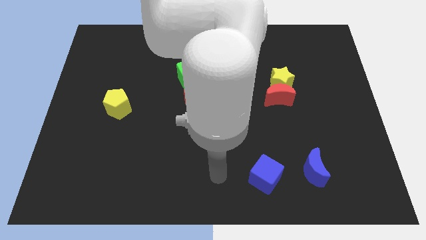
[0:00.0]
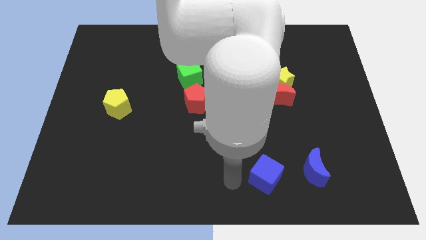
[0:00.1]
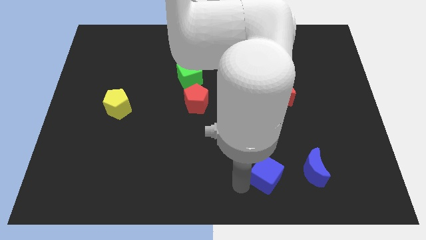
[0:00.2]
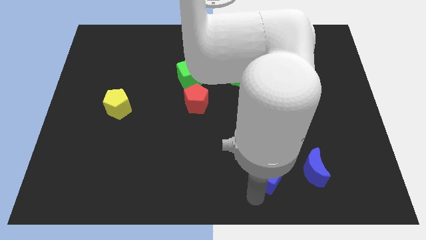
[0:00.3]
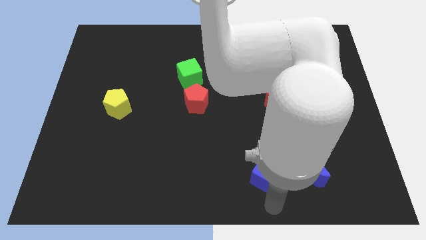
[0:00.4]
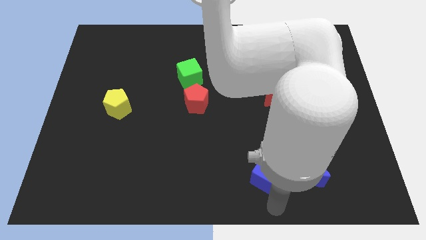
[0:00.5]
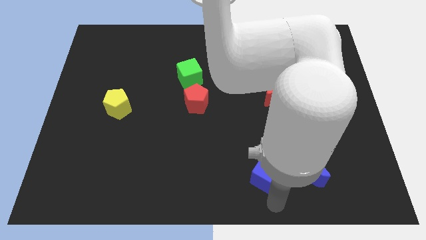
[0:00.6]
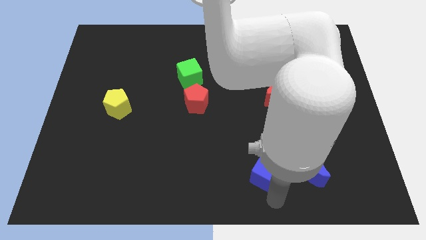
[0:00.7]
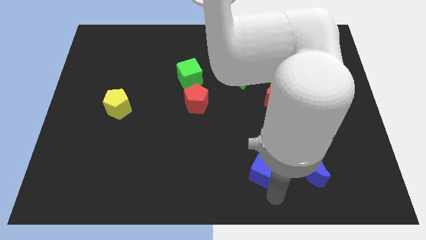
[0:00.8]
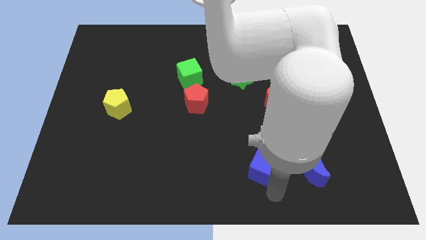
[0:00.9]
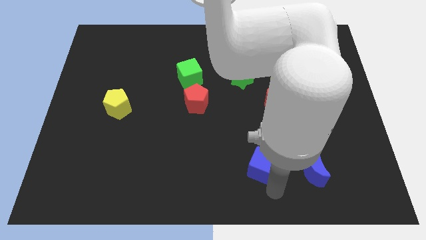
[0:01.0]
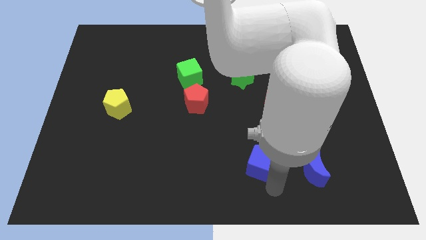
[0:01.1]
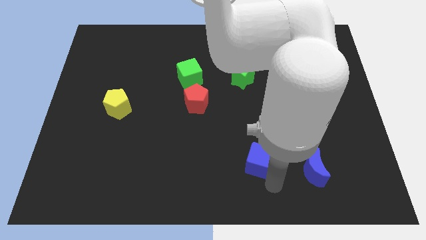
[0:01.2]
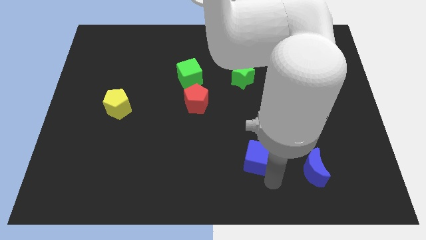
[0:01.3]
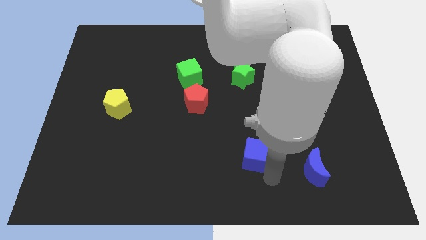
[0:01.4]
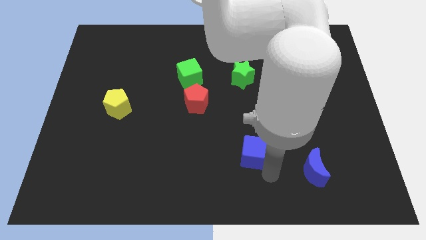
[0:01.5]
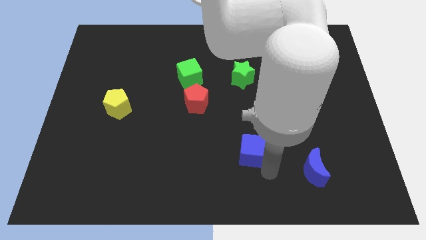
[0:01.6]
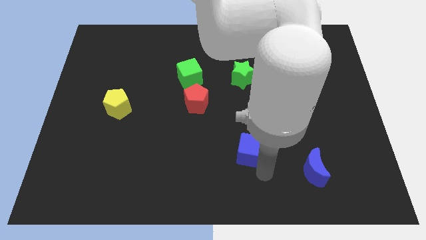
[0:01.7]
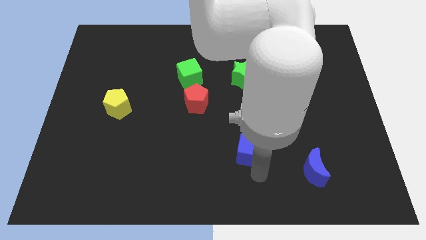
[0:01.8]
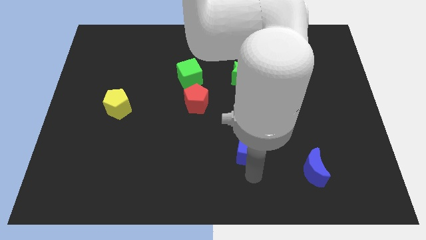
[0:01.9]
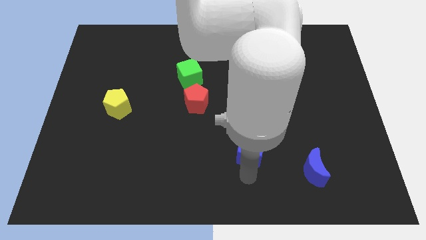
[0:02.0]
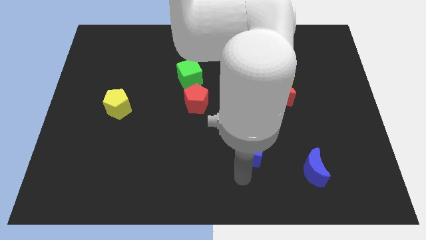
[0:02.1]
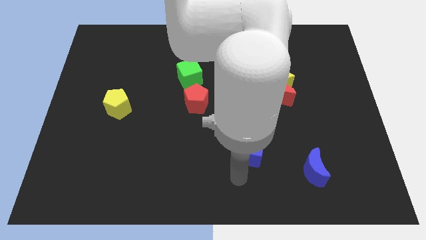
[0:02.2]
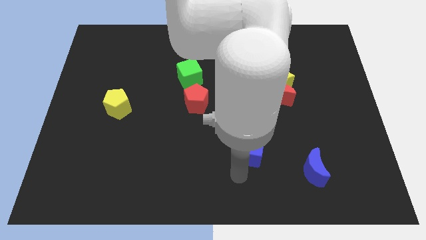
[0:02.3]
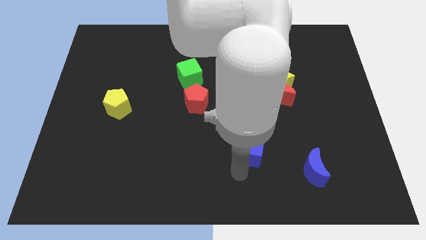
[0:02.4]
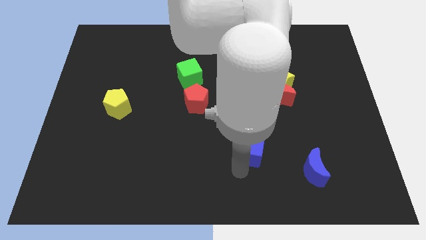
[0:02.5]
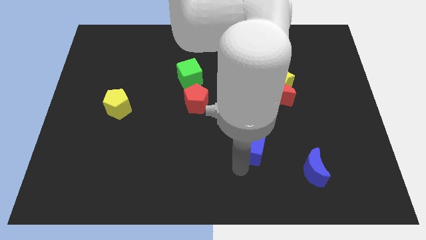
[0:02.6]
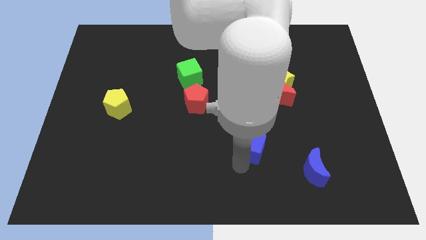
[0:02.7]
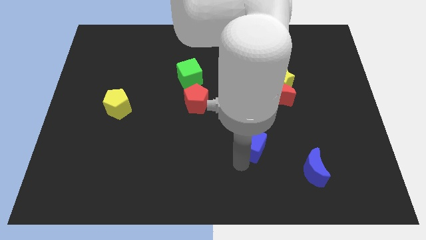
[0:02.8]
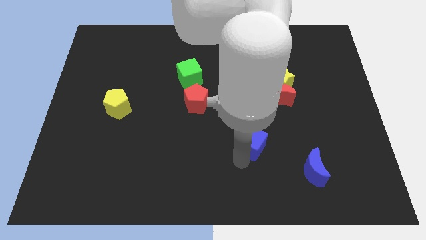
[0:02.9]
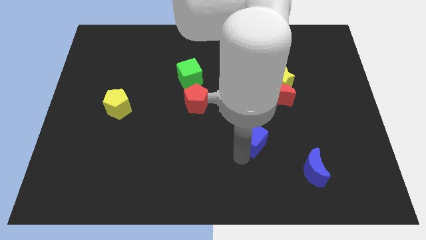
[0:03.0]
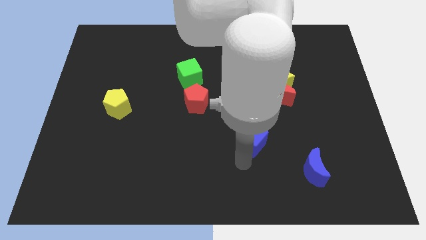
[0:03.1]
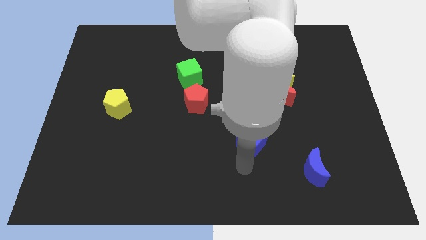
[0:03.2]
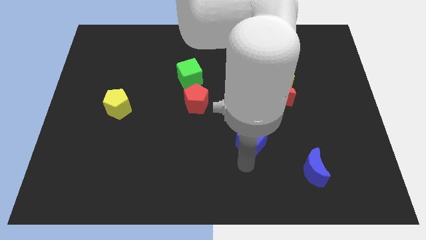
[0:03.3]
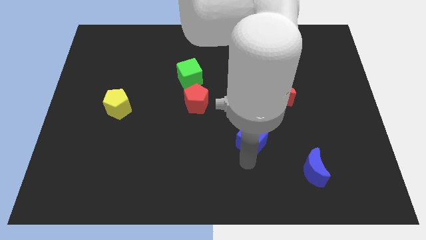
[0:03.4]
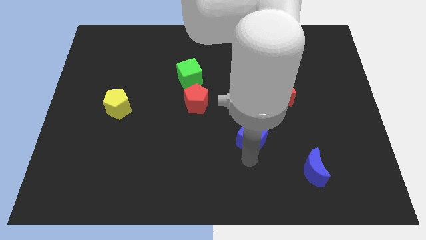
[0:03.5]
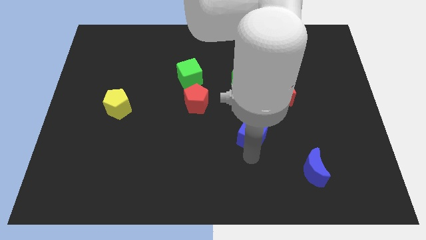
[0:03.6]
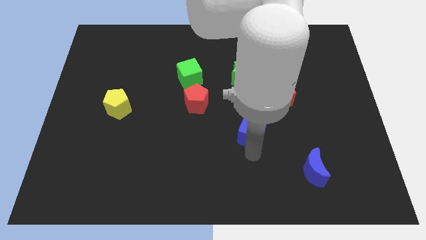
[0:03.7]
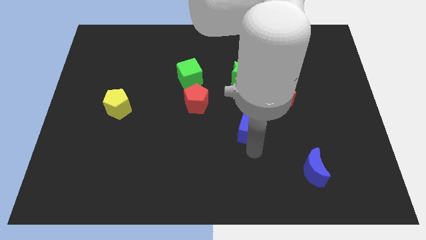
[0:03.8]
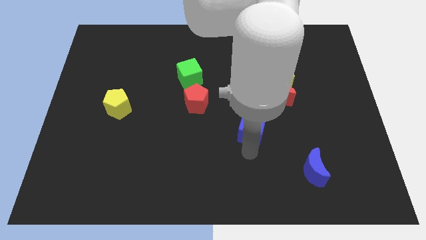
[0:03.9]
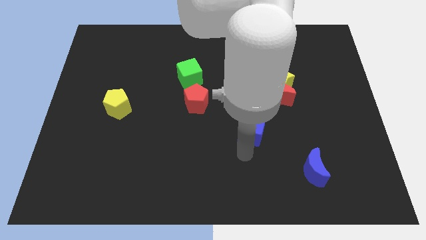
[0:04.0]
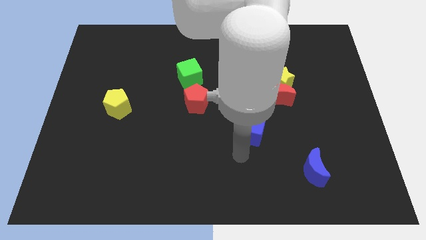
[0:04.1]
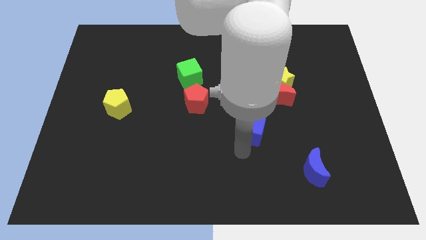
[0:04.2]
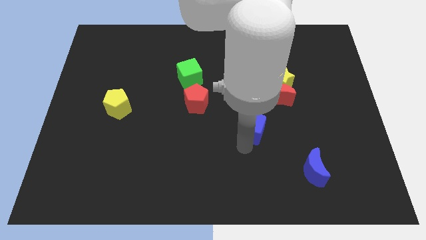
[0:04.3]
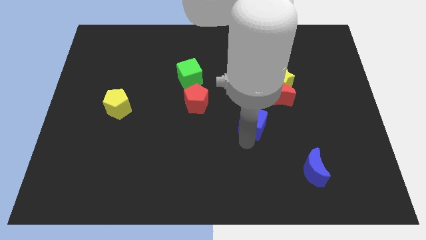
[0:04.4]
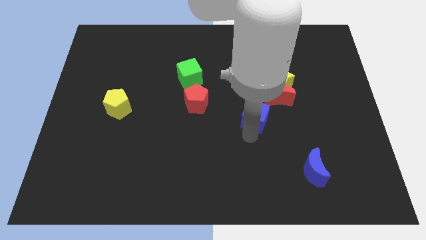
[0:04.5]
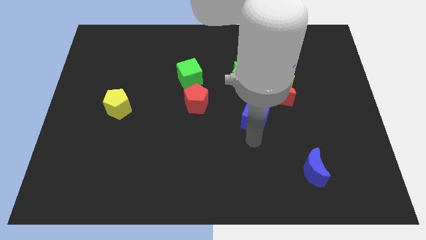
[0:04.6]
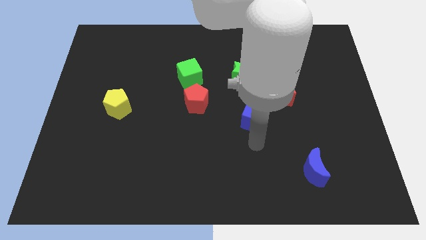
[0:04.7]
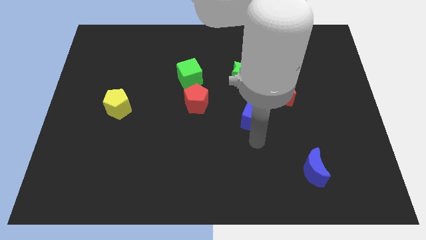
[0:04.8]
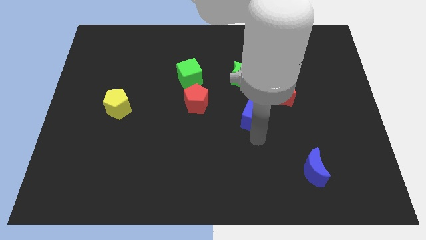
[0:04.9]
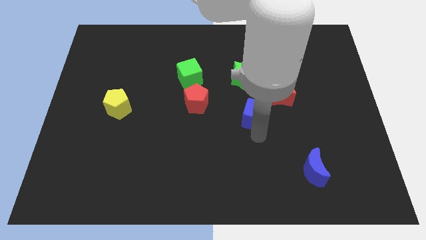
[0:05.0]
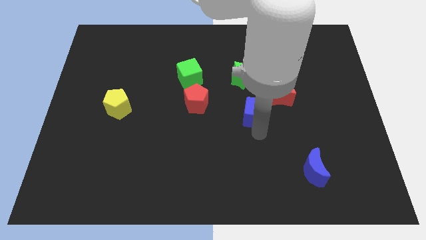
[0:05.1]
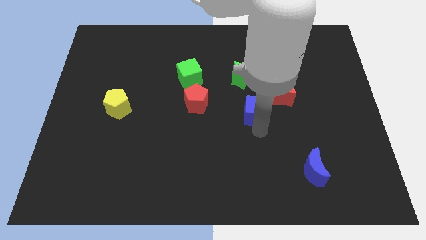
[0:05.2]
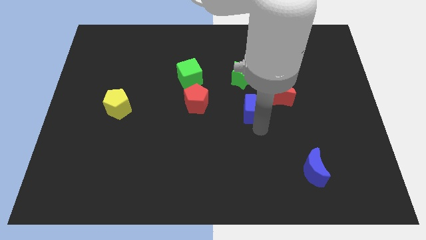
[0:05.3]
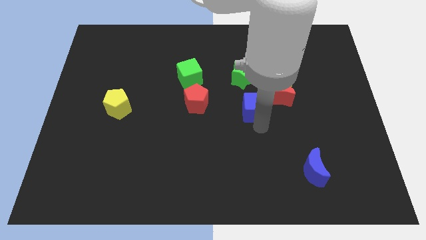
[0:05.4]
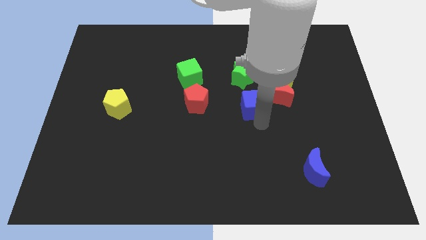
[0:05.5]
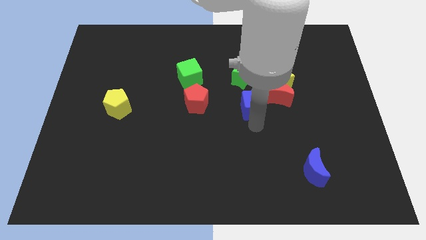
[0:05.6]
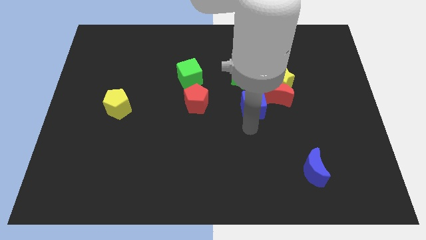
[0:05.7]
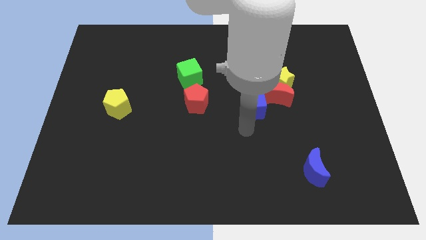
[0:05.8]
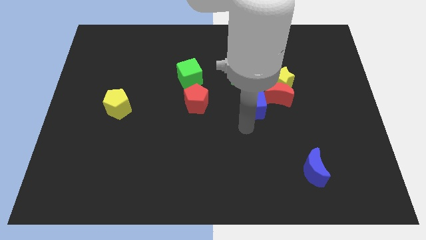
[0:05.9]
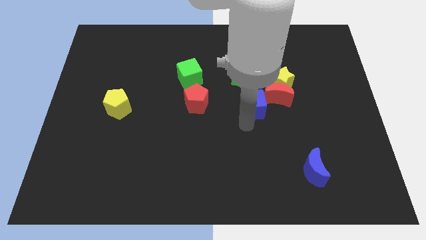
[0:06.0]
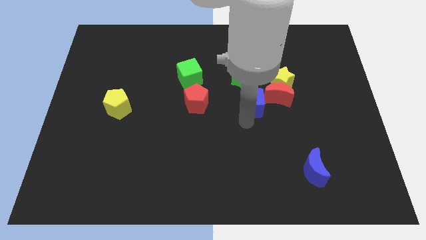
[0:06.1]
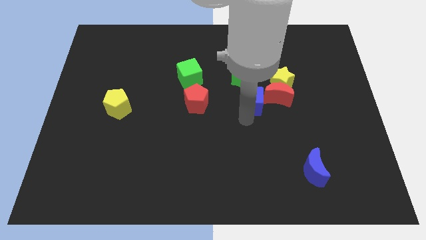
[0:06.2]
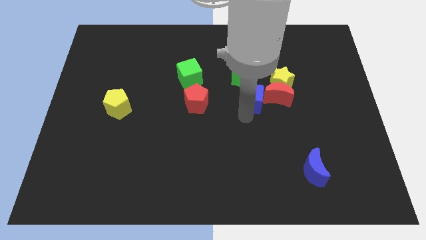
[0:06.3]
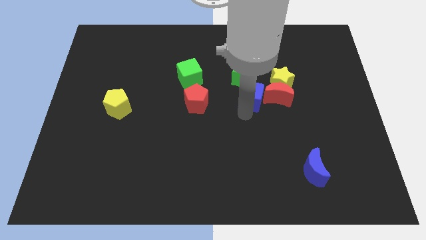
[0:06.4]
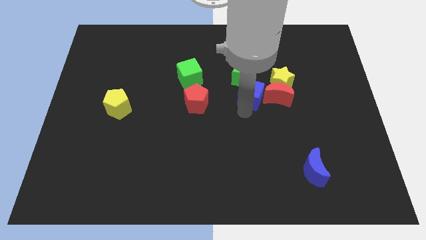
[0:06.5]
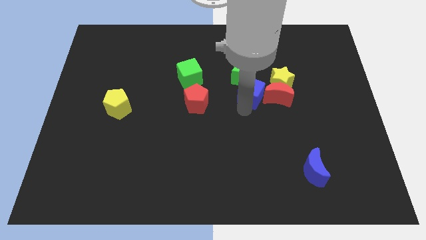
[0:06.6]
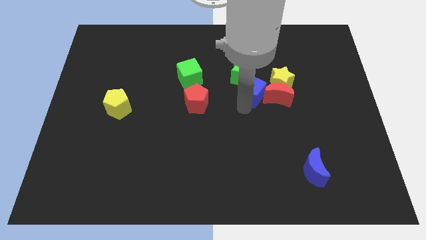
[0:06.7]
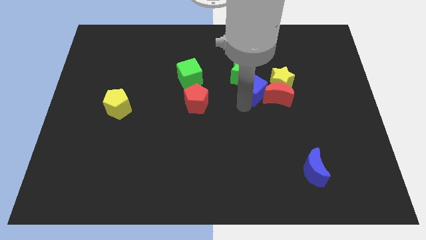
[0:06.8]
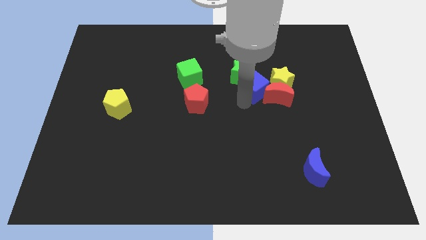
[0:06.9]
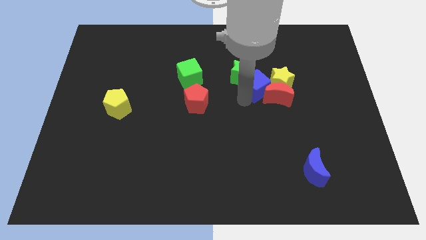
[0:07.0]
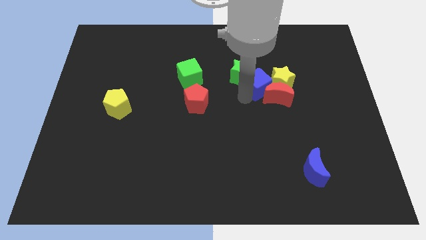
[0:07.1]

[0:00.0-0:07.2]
push the blue cube close to the yellow star
